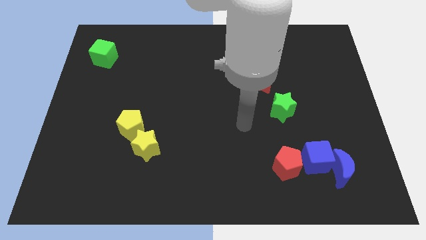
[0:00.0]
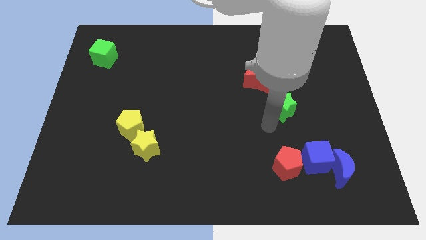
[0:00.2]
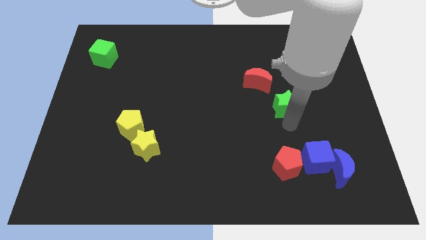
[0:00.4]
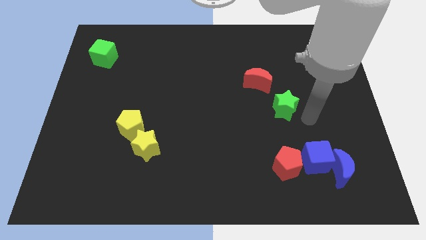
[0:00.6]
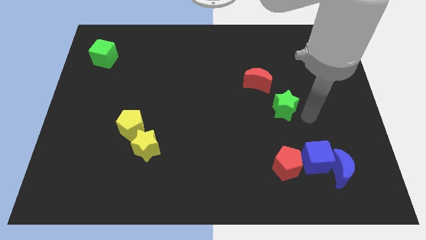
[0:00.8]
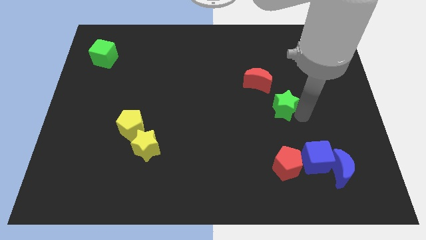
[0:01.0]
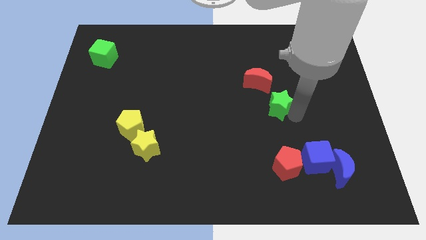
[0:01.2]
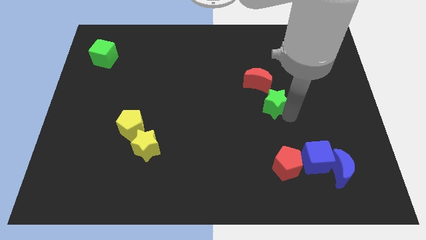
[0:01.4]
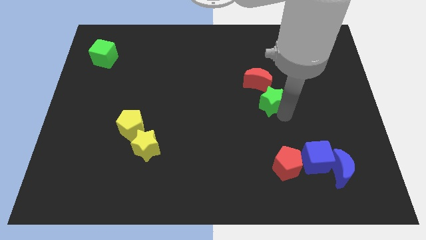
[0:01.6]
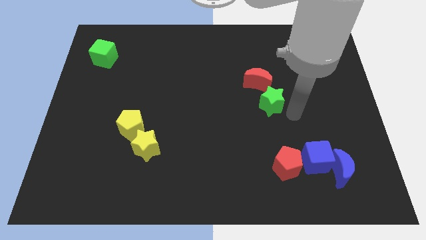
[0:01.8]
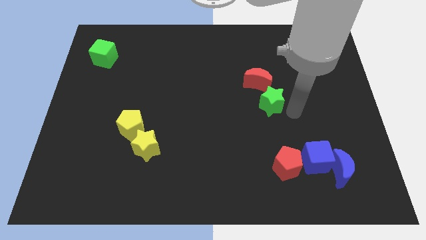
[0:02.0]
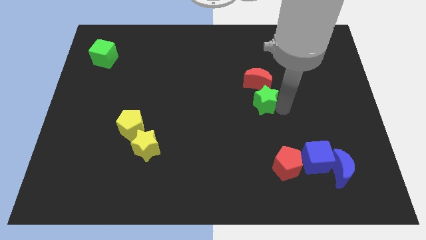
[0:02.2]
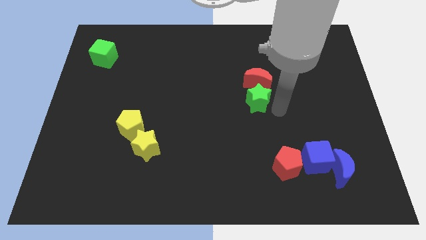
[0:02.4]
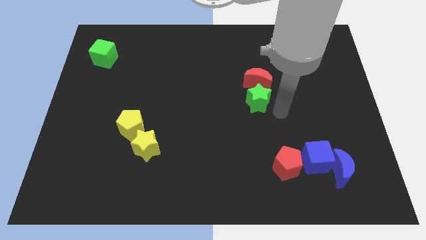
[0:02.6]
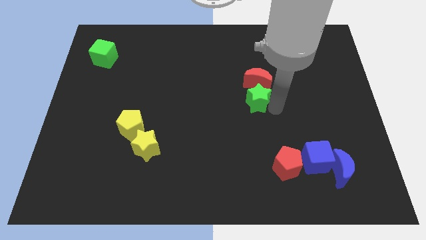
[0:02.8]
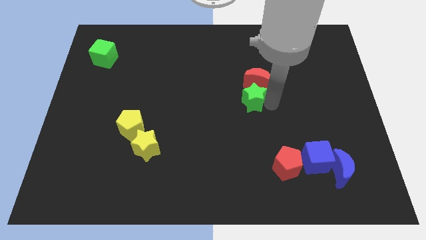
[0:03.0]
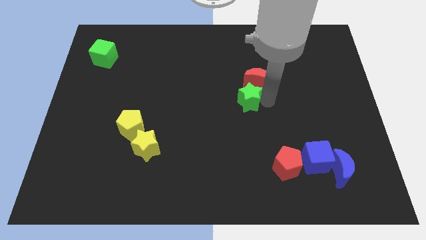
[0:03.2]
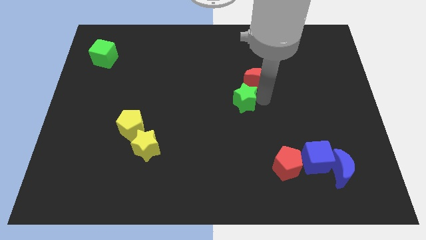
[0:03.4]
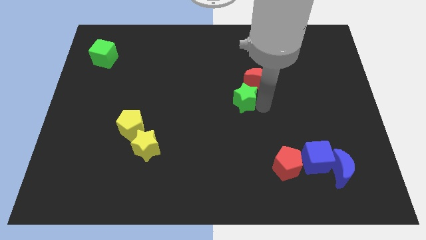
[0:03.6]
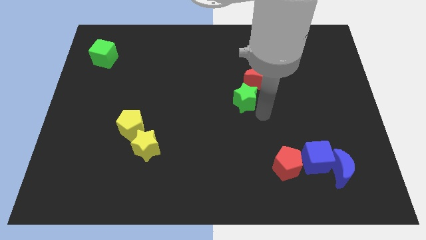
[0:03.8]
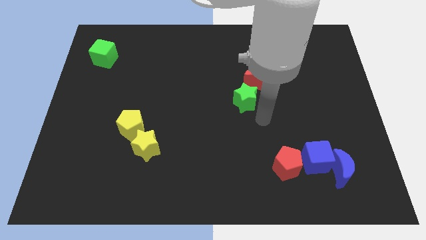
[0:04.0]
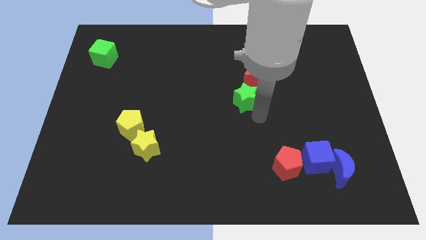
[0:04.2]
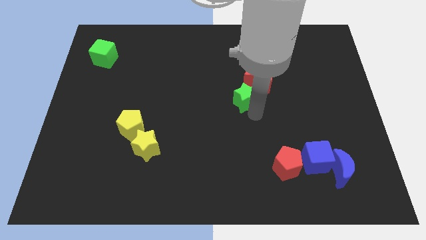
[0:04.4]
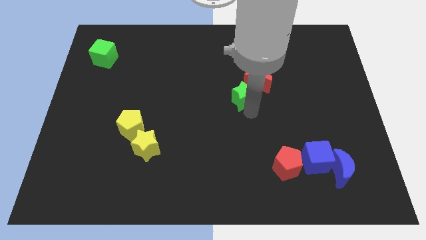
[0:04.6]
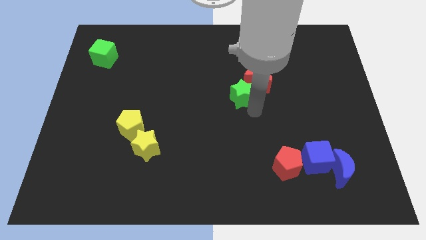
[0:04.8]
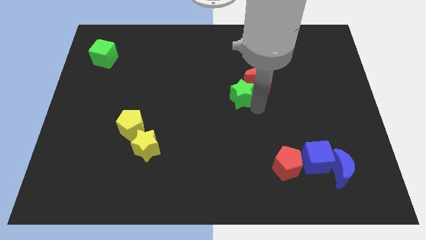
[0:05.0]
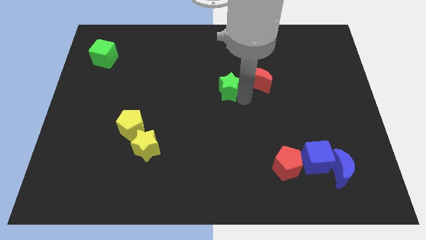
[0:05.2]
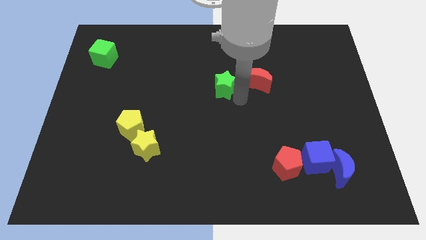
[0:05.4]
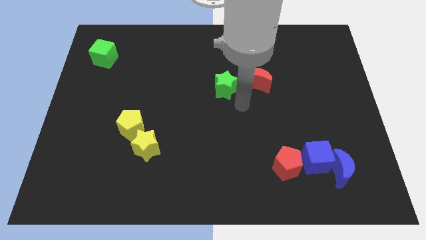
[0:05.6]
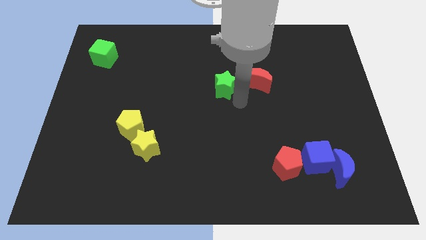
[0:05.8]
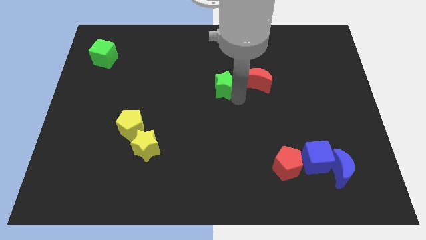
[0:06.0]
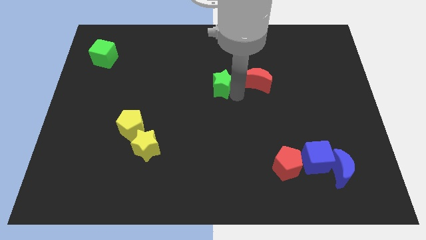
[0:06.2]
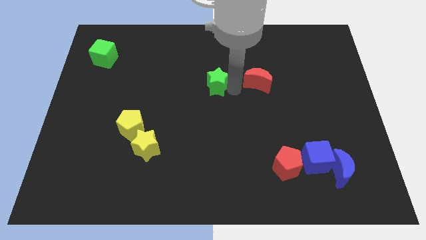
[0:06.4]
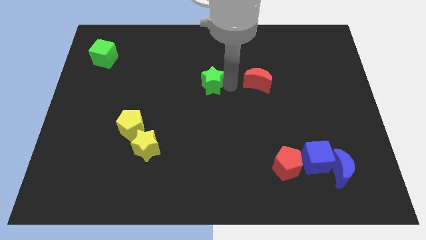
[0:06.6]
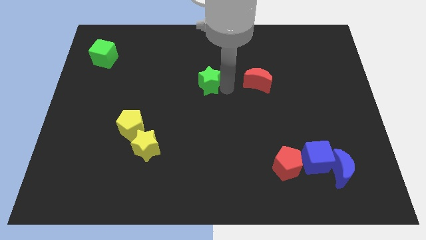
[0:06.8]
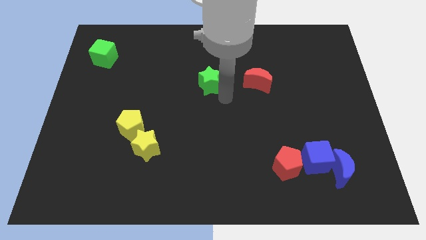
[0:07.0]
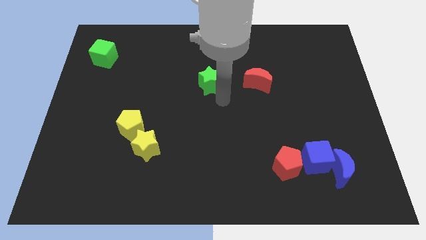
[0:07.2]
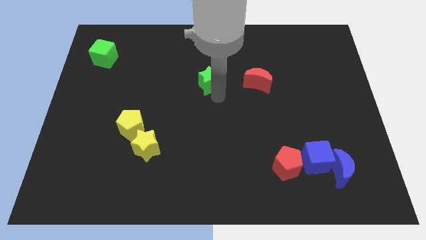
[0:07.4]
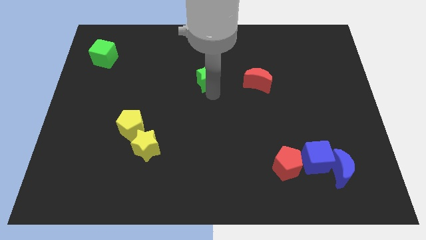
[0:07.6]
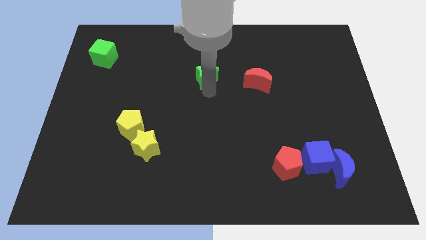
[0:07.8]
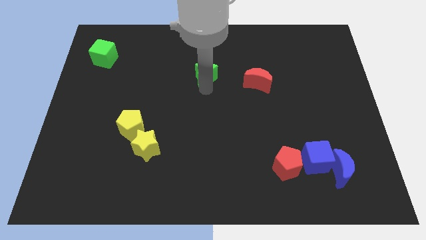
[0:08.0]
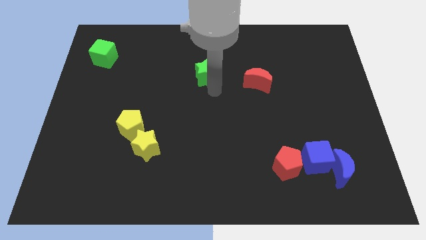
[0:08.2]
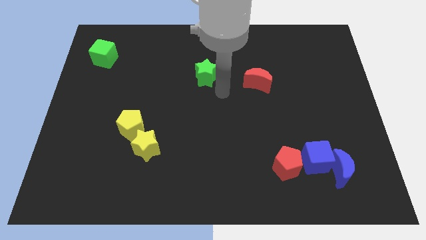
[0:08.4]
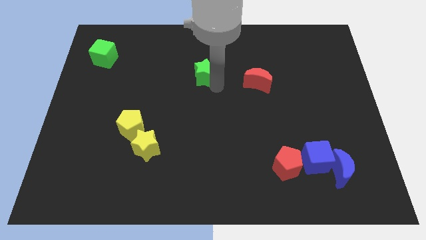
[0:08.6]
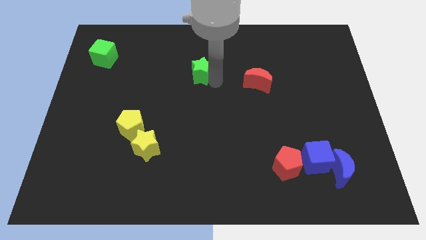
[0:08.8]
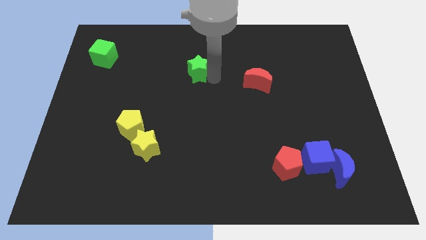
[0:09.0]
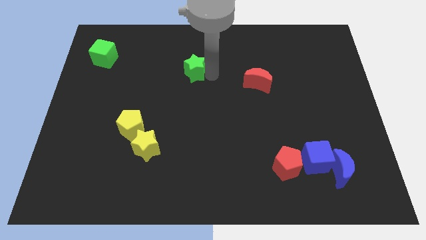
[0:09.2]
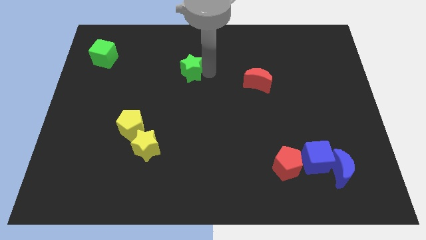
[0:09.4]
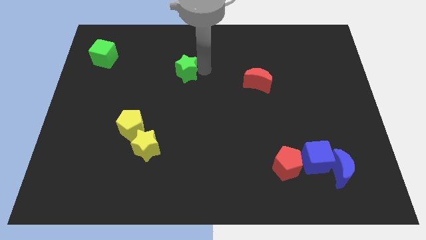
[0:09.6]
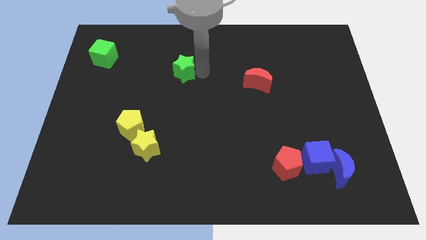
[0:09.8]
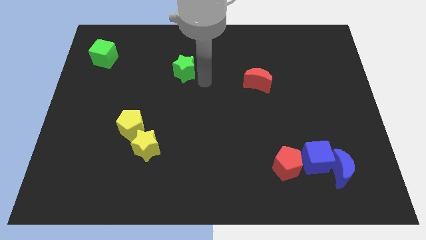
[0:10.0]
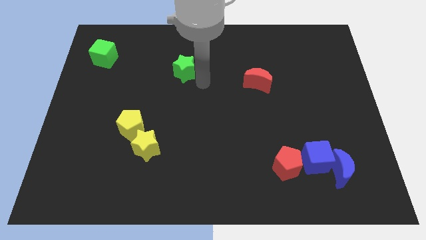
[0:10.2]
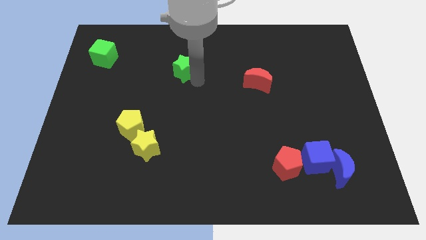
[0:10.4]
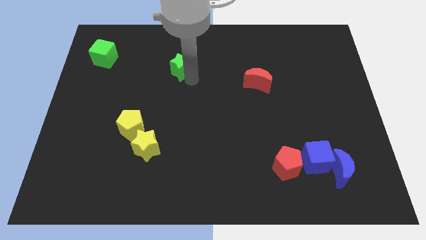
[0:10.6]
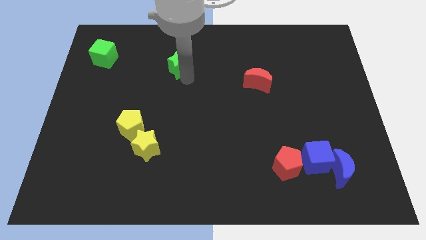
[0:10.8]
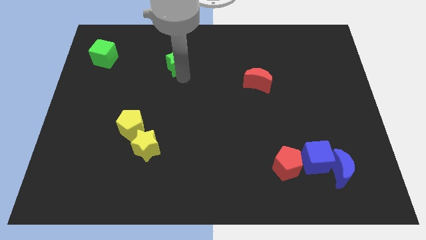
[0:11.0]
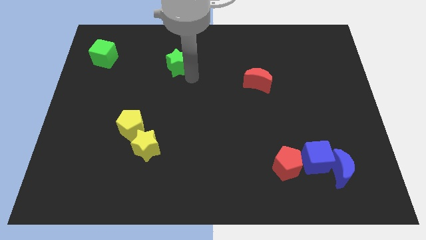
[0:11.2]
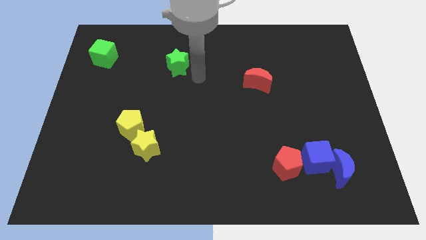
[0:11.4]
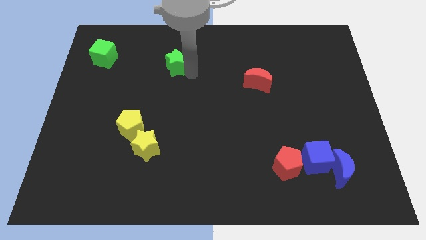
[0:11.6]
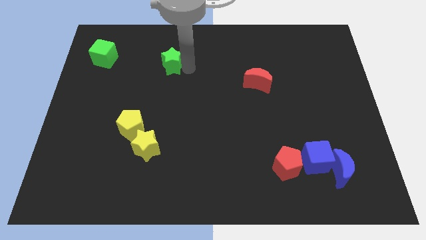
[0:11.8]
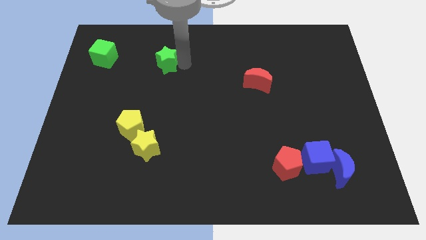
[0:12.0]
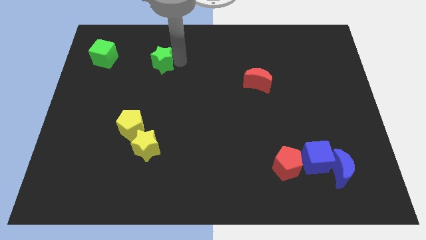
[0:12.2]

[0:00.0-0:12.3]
push the green star to the right side of the green cube

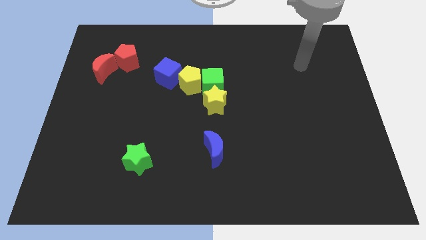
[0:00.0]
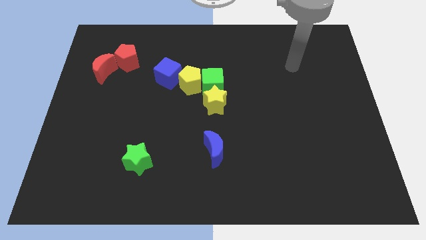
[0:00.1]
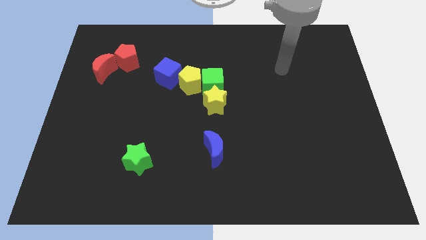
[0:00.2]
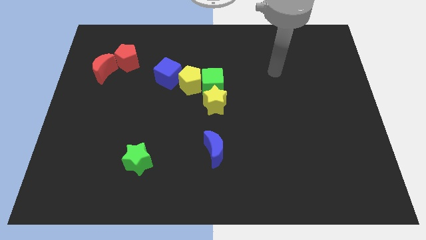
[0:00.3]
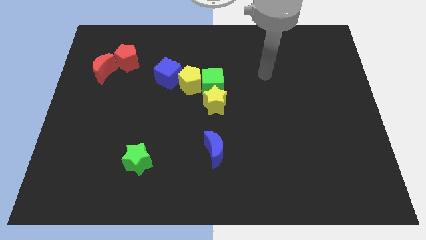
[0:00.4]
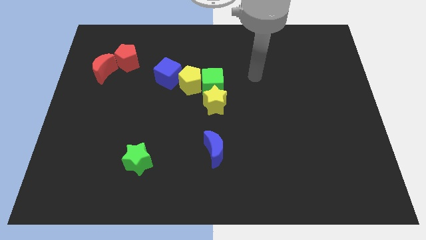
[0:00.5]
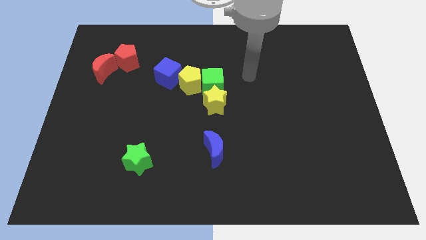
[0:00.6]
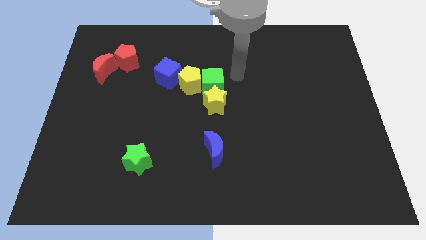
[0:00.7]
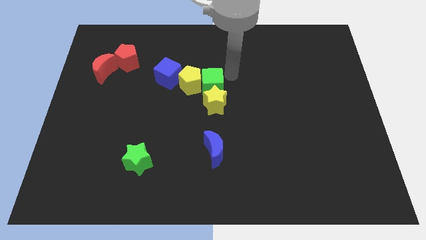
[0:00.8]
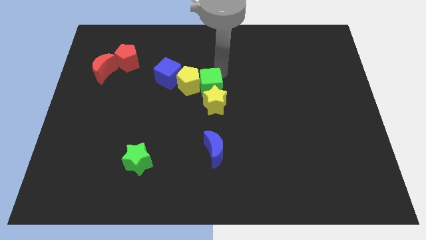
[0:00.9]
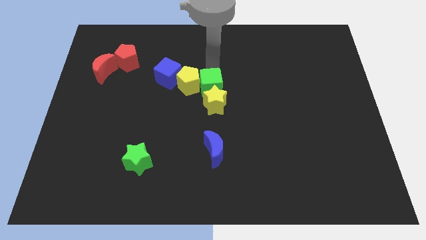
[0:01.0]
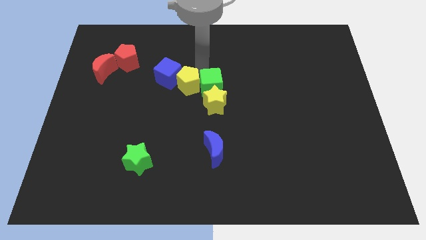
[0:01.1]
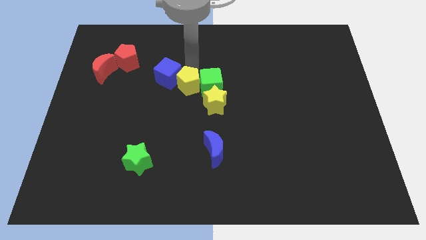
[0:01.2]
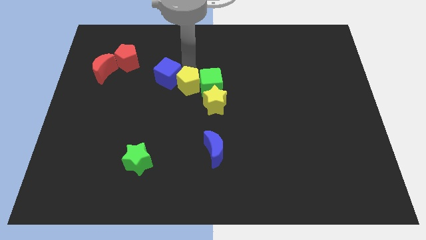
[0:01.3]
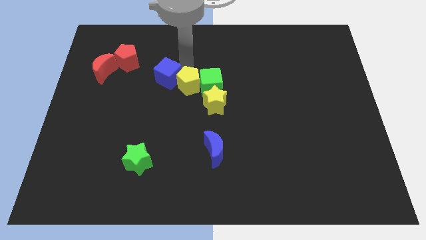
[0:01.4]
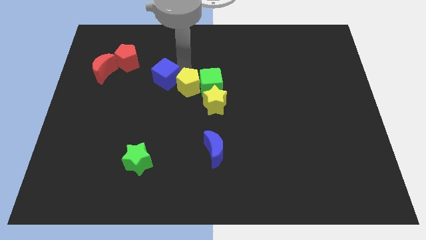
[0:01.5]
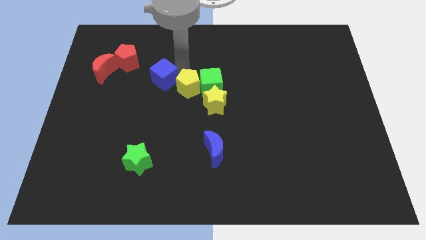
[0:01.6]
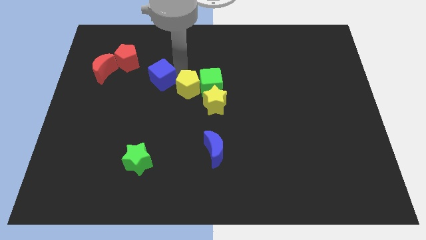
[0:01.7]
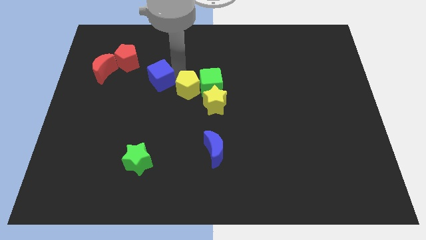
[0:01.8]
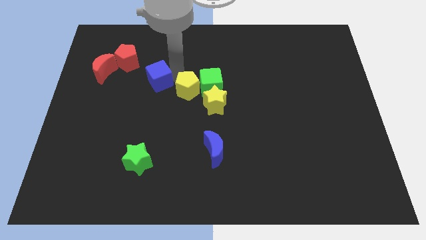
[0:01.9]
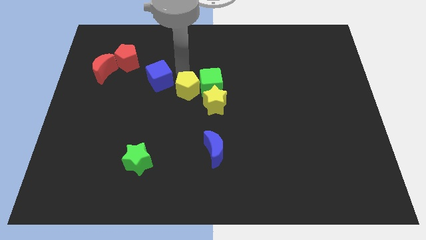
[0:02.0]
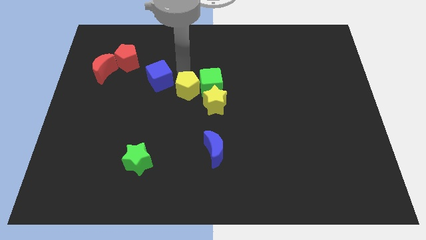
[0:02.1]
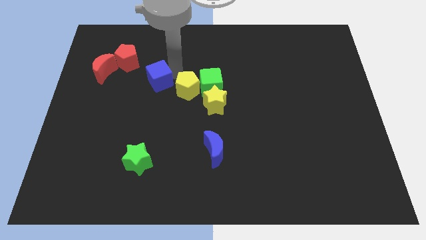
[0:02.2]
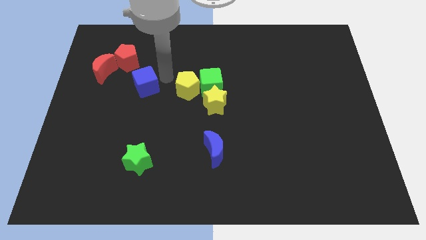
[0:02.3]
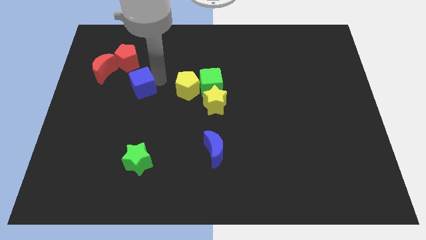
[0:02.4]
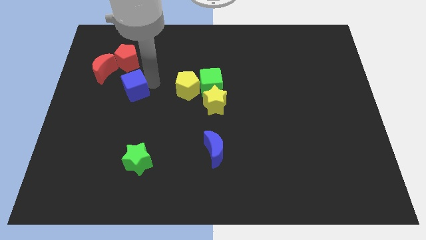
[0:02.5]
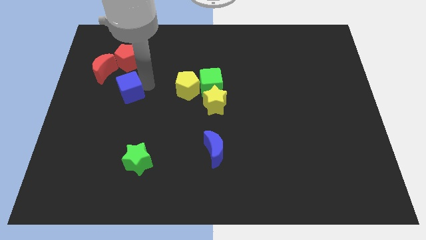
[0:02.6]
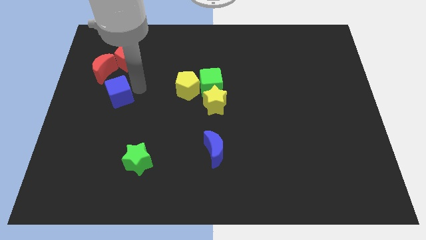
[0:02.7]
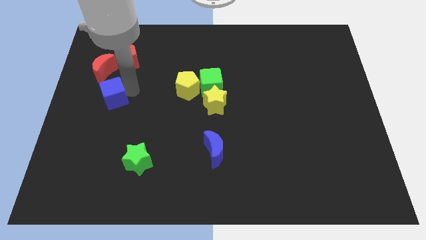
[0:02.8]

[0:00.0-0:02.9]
put the blue cube below the red moon
